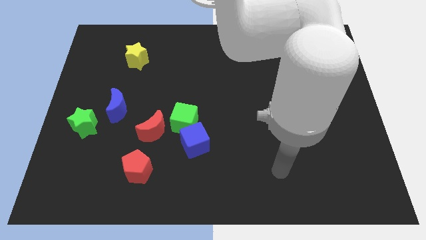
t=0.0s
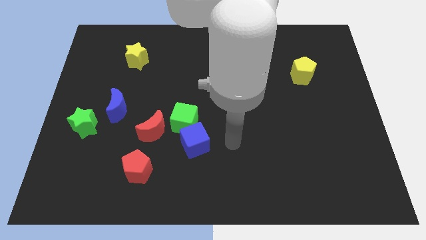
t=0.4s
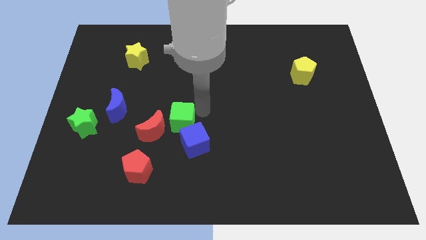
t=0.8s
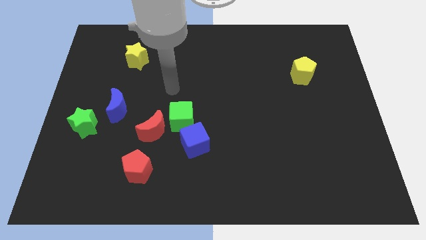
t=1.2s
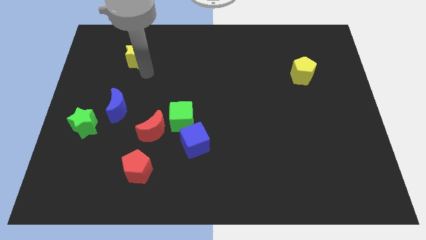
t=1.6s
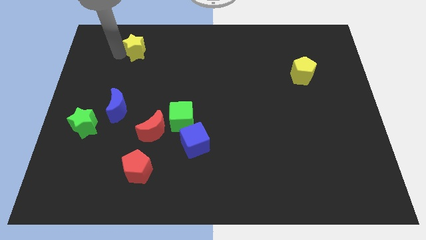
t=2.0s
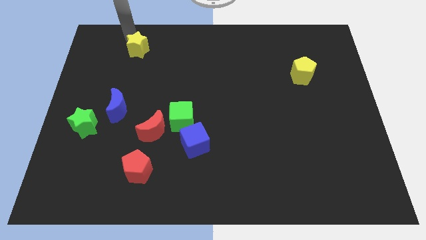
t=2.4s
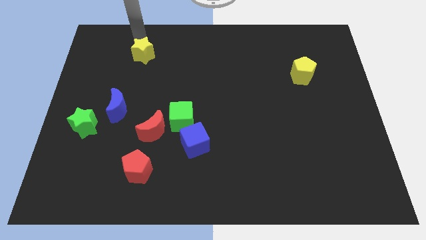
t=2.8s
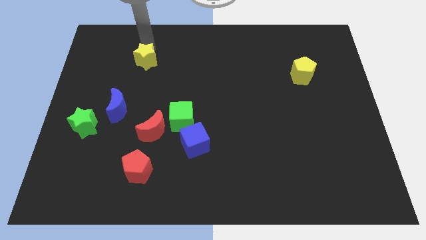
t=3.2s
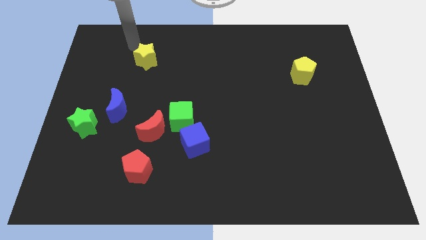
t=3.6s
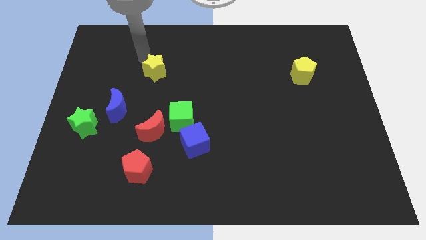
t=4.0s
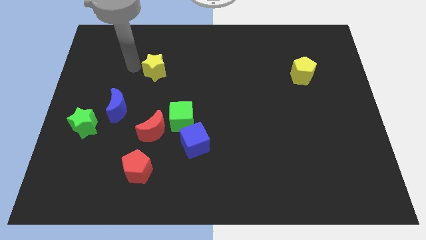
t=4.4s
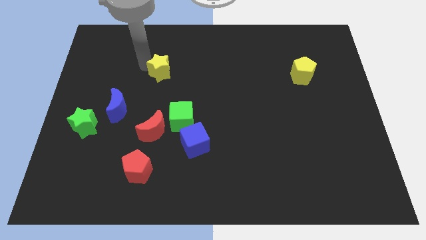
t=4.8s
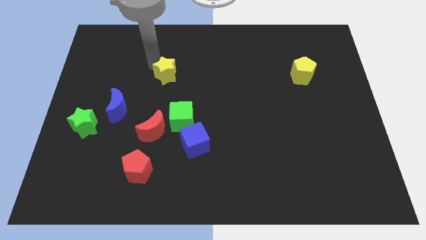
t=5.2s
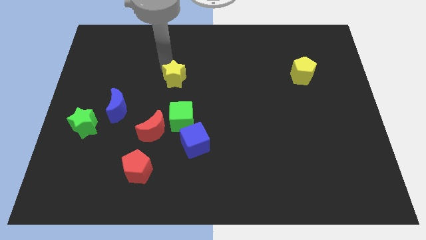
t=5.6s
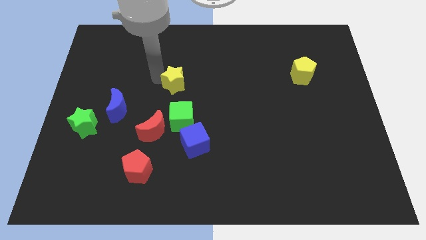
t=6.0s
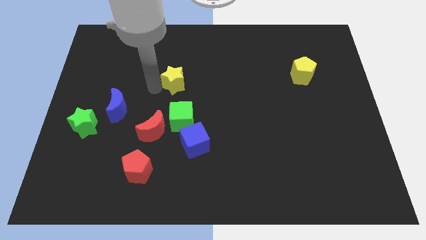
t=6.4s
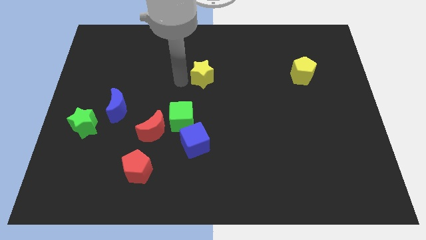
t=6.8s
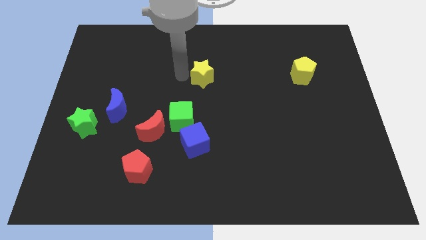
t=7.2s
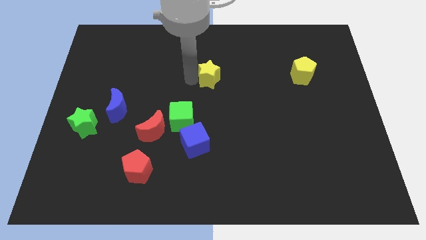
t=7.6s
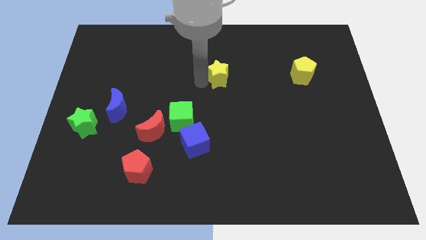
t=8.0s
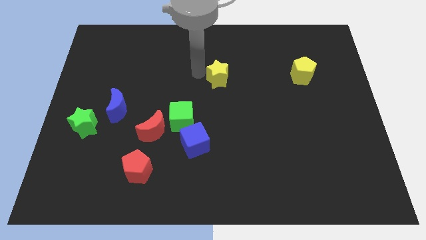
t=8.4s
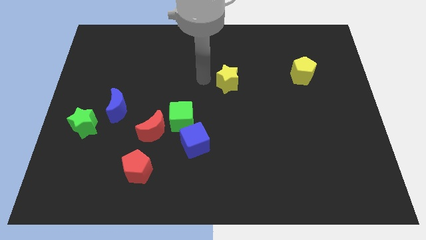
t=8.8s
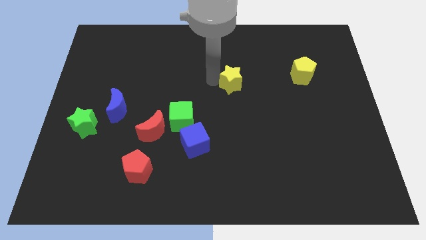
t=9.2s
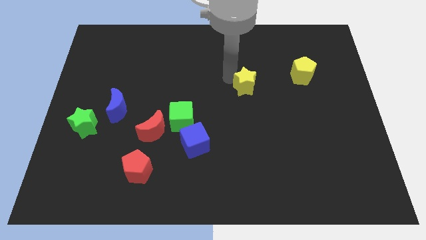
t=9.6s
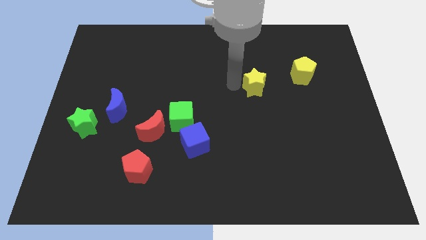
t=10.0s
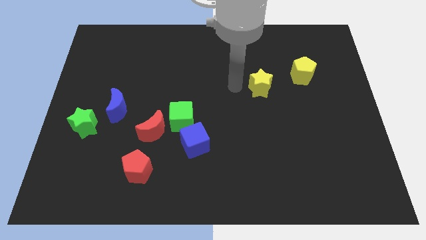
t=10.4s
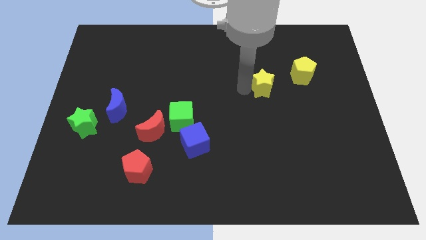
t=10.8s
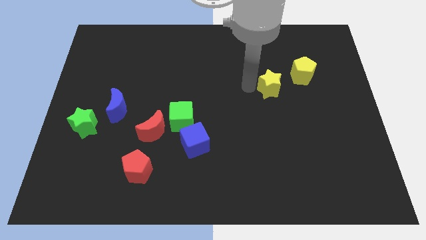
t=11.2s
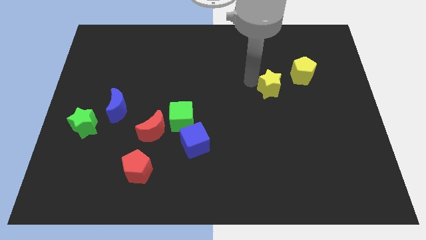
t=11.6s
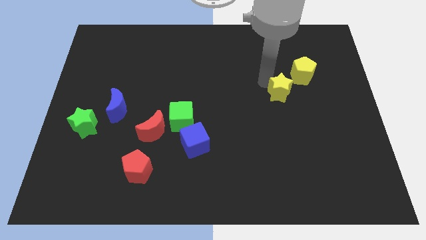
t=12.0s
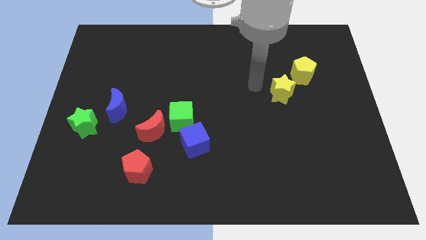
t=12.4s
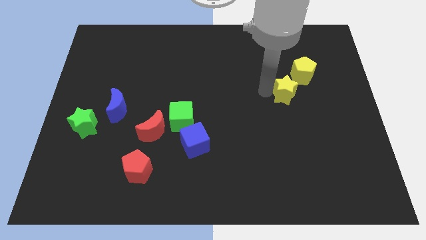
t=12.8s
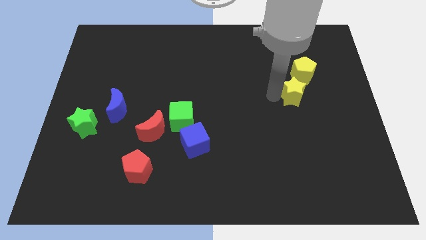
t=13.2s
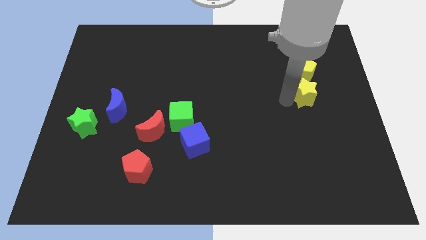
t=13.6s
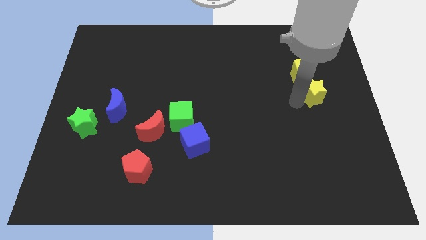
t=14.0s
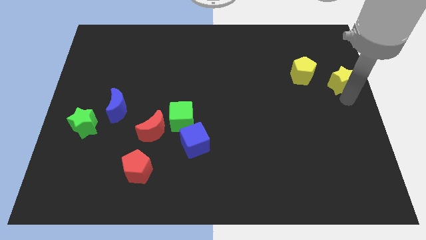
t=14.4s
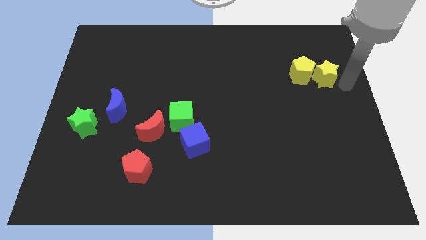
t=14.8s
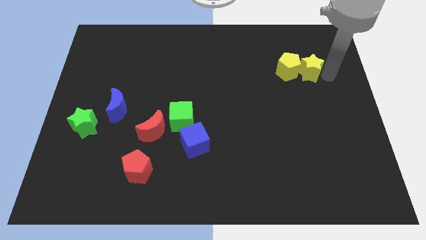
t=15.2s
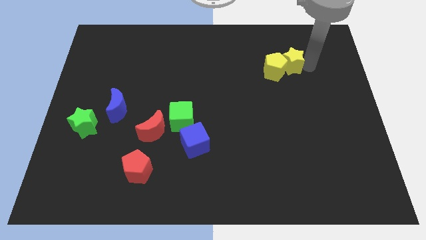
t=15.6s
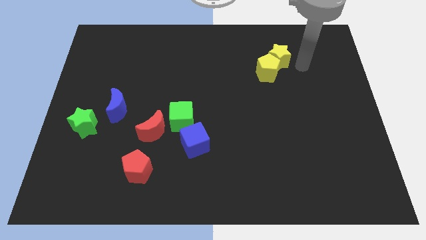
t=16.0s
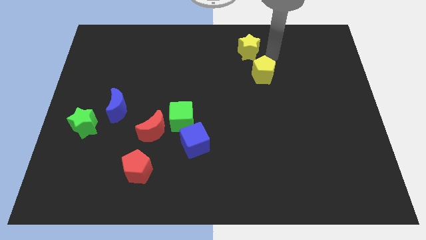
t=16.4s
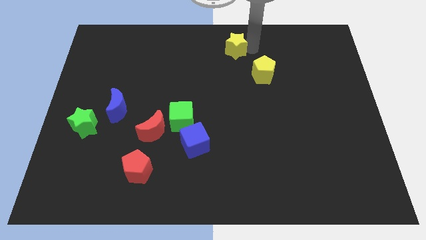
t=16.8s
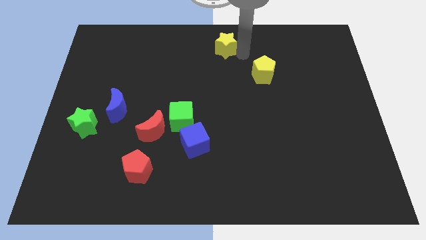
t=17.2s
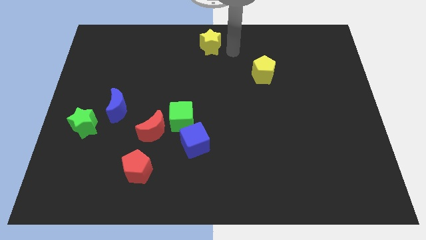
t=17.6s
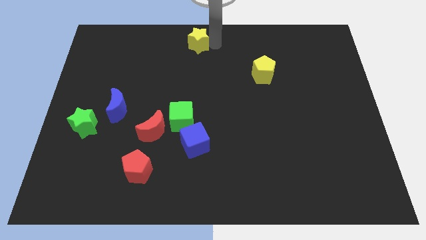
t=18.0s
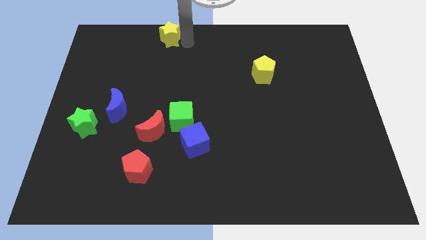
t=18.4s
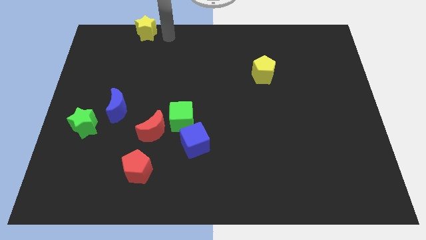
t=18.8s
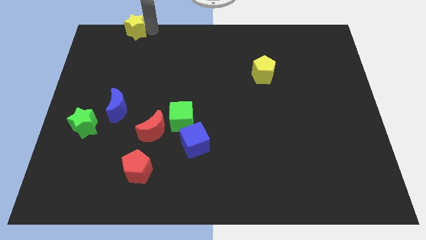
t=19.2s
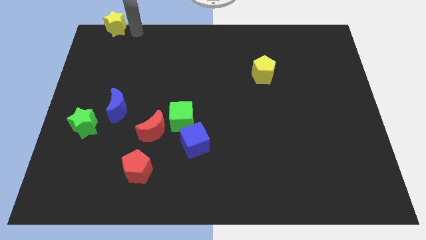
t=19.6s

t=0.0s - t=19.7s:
slide the yellow star to the top left corner

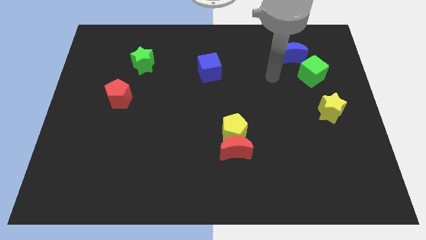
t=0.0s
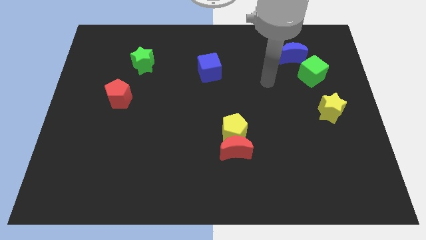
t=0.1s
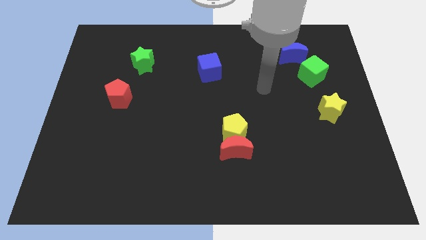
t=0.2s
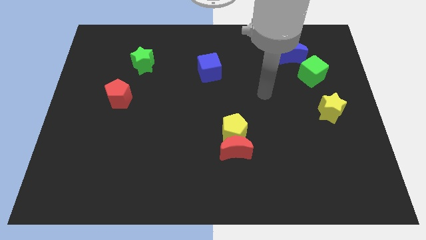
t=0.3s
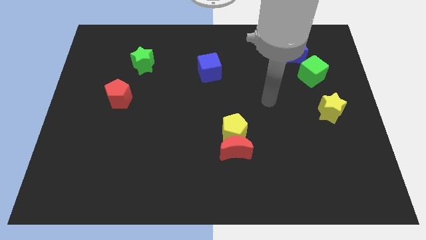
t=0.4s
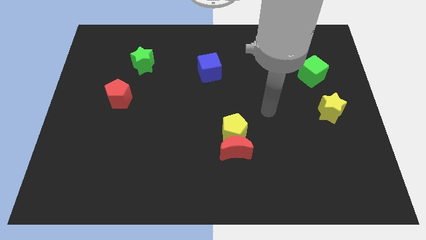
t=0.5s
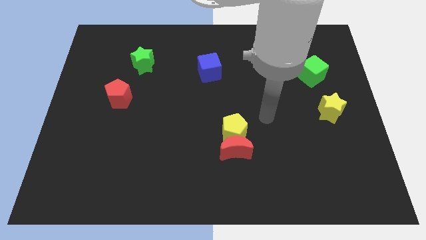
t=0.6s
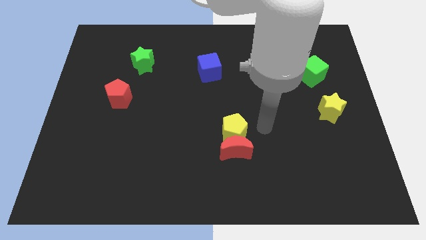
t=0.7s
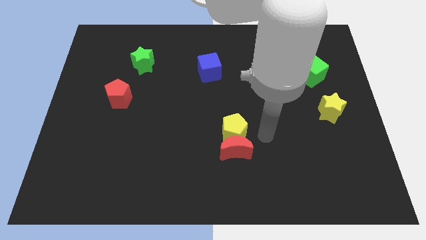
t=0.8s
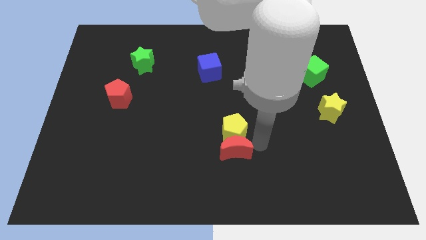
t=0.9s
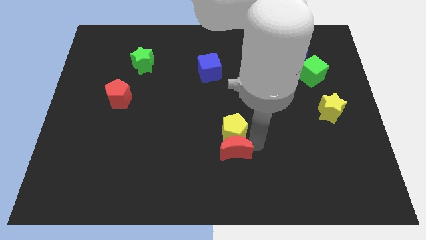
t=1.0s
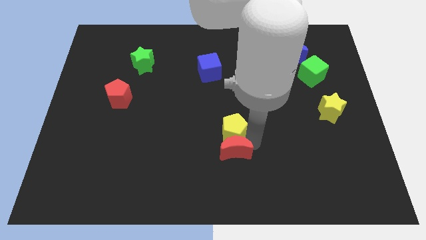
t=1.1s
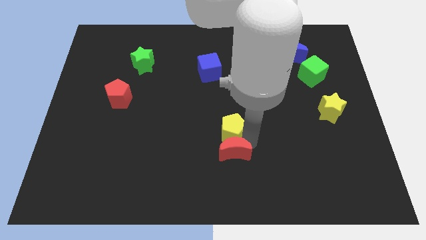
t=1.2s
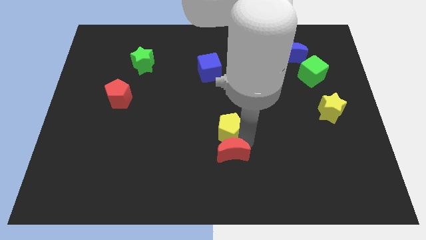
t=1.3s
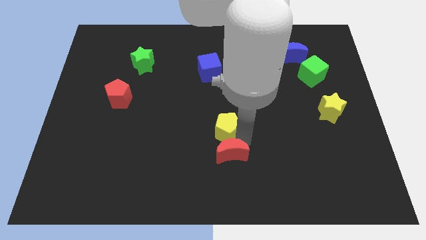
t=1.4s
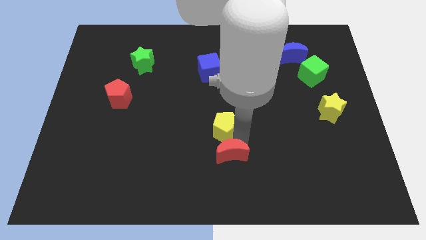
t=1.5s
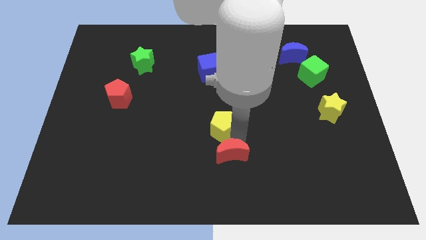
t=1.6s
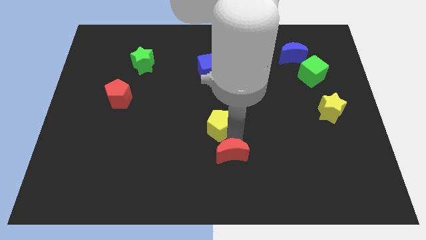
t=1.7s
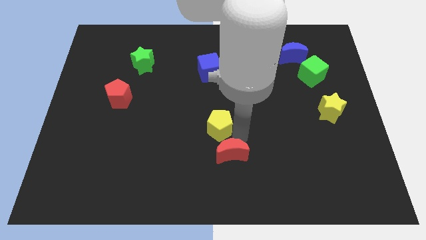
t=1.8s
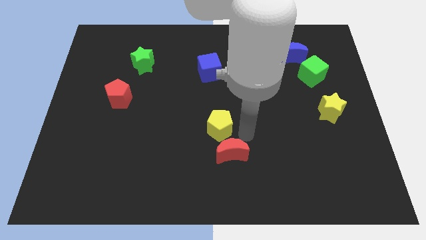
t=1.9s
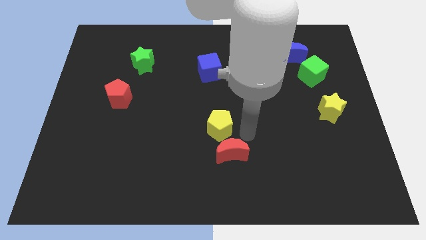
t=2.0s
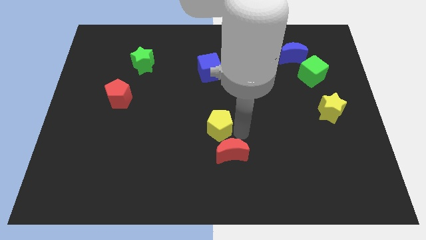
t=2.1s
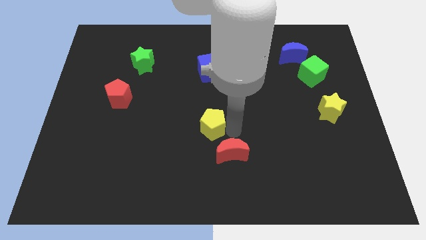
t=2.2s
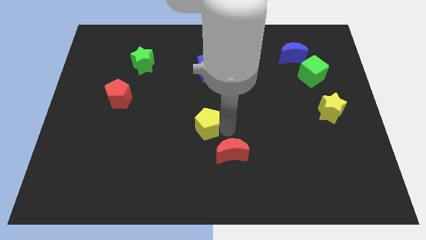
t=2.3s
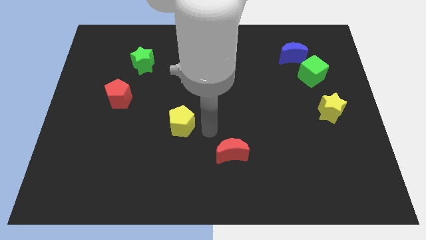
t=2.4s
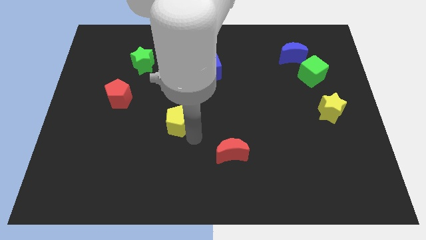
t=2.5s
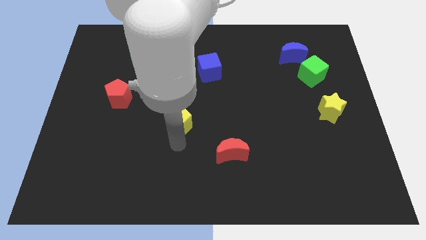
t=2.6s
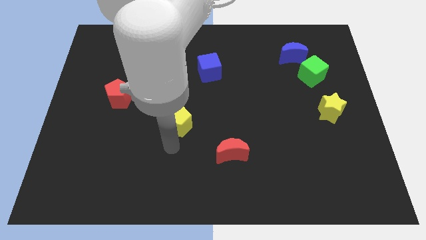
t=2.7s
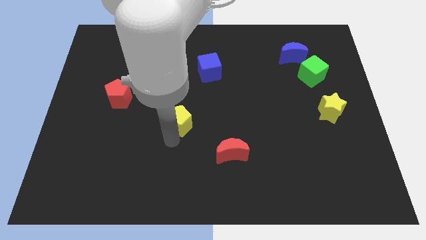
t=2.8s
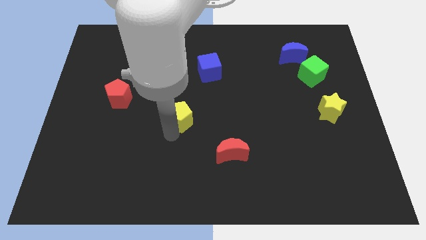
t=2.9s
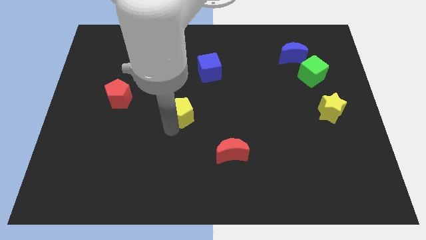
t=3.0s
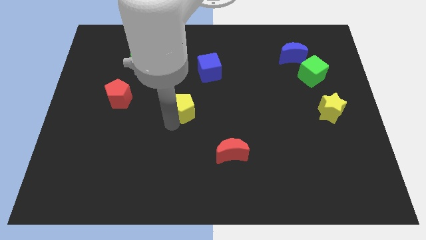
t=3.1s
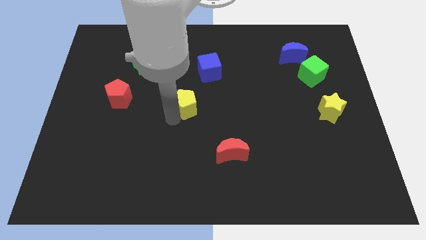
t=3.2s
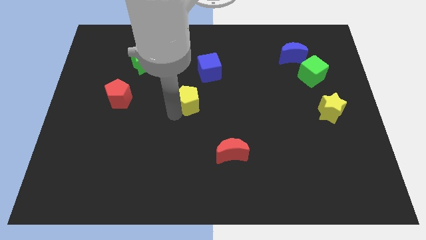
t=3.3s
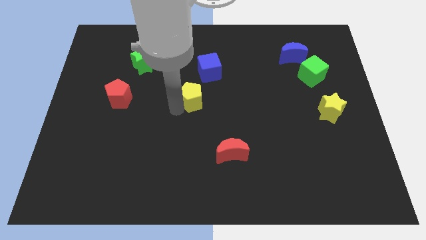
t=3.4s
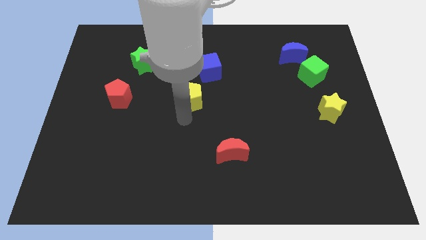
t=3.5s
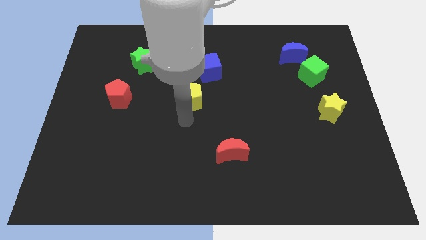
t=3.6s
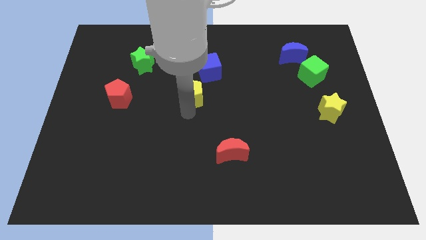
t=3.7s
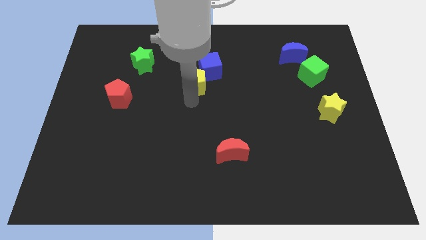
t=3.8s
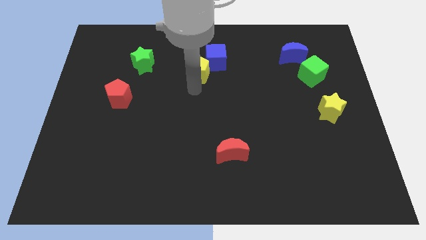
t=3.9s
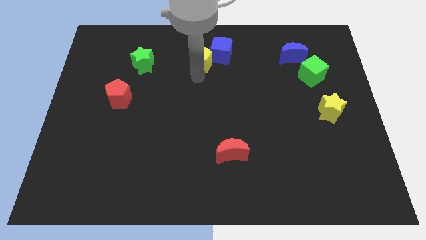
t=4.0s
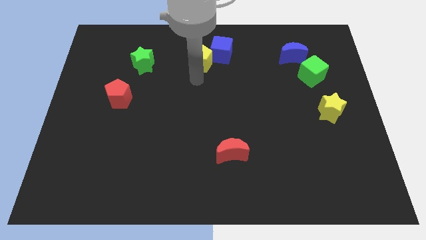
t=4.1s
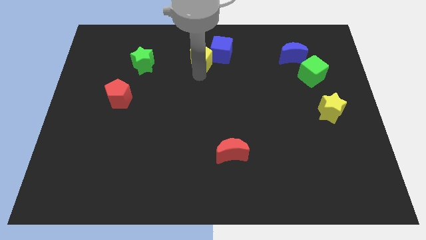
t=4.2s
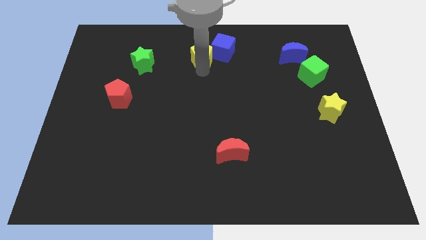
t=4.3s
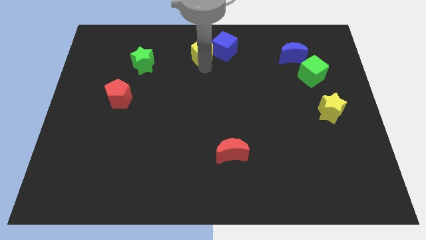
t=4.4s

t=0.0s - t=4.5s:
put the yellow pentagon to the top
